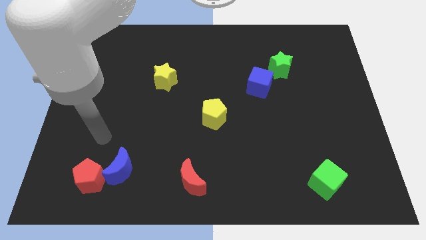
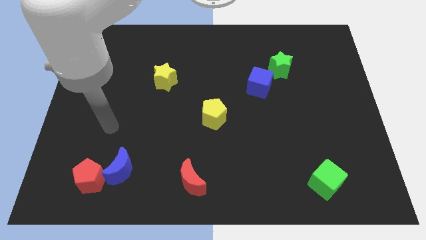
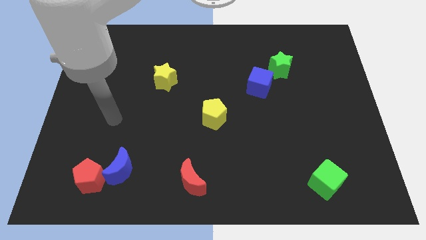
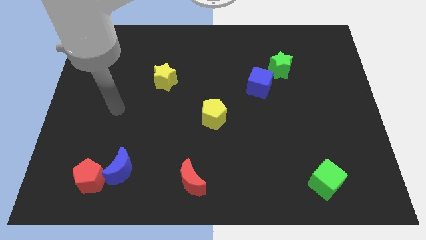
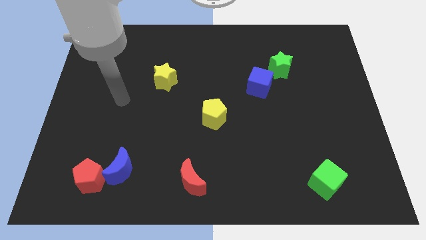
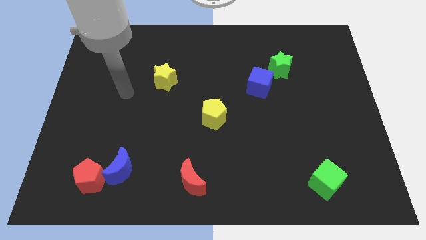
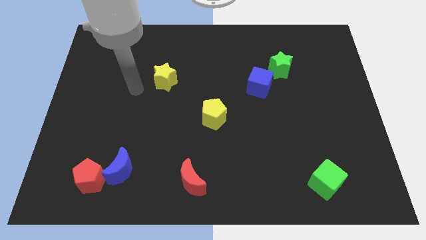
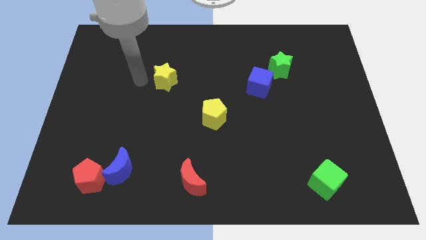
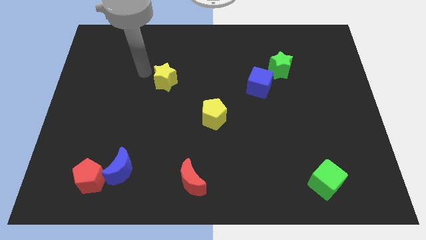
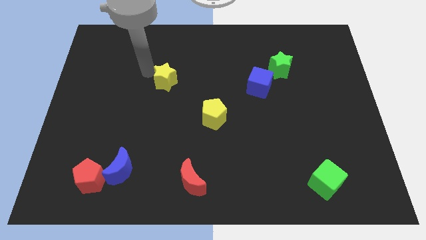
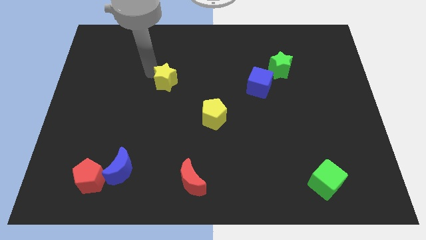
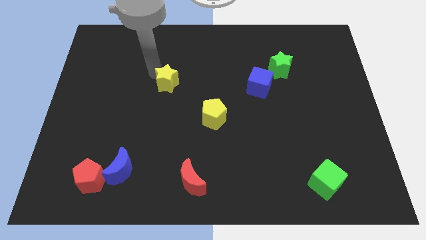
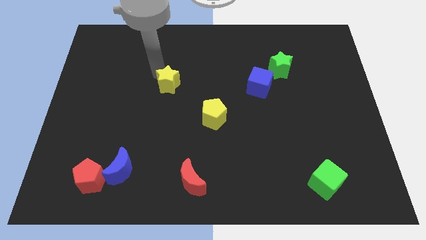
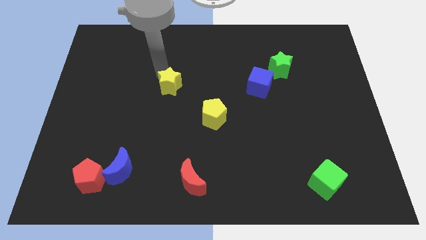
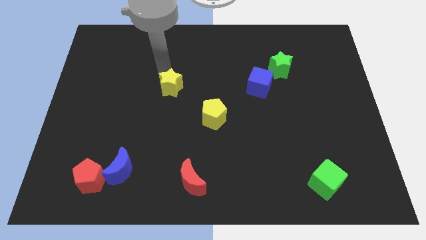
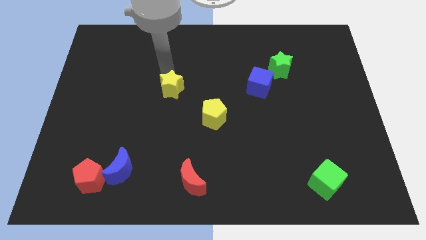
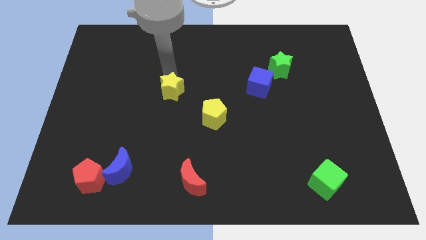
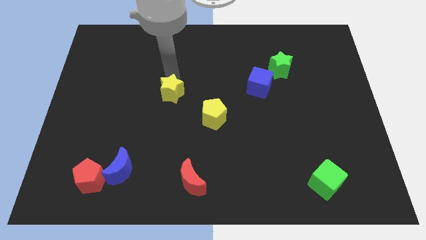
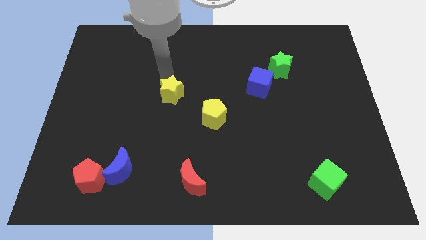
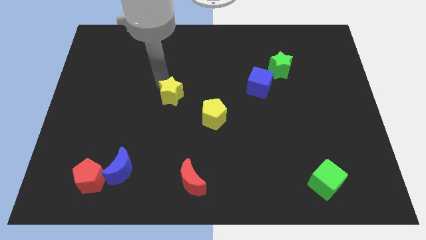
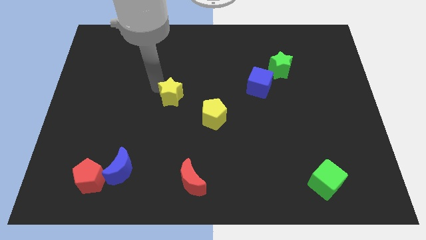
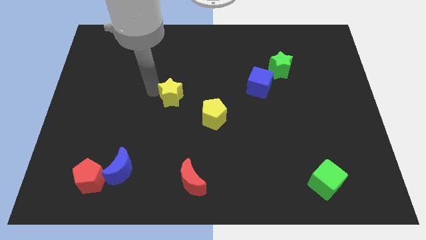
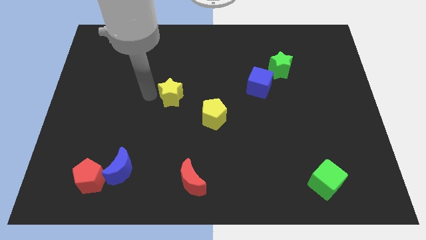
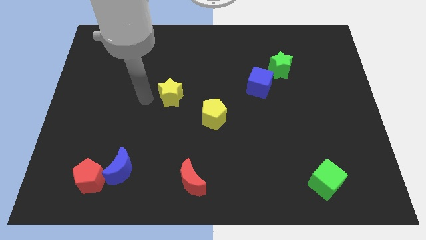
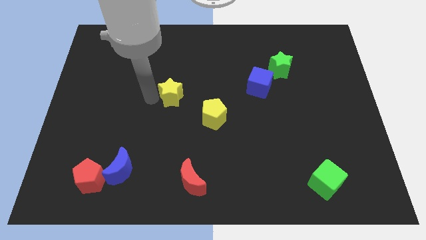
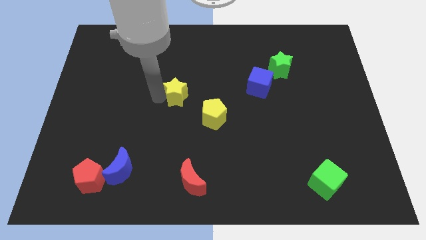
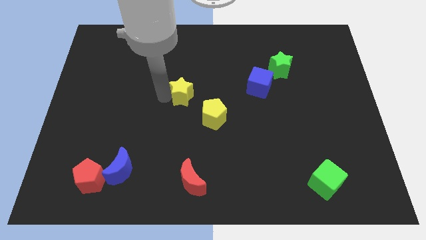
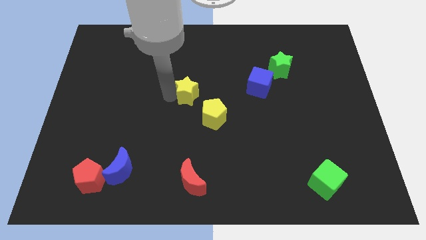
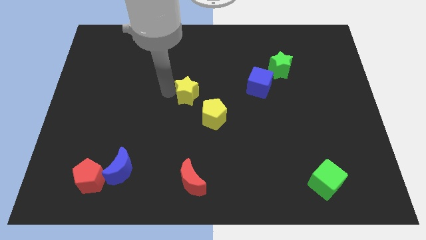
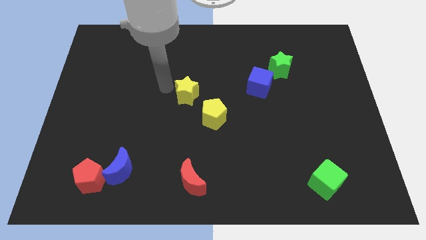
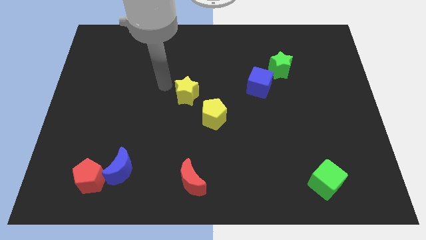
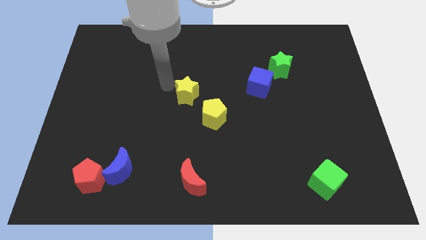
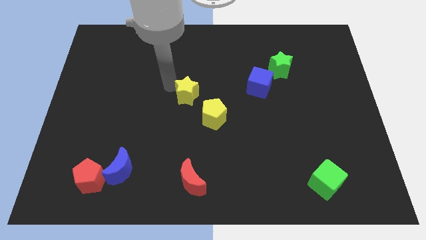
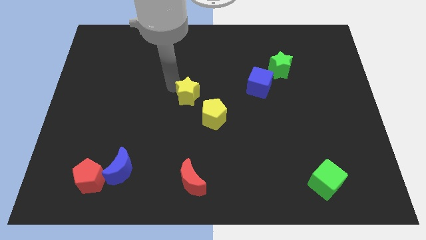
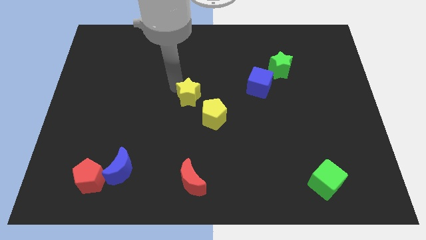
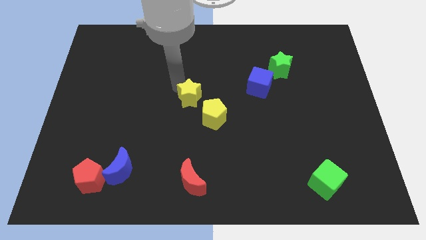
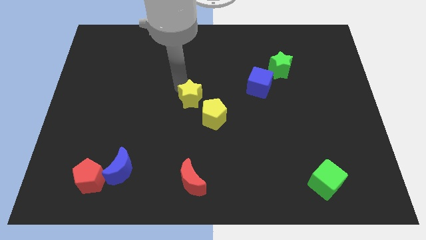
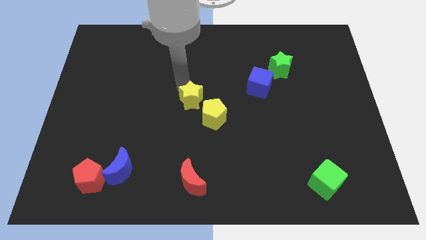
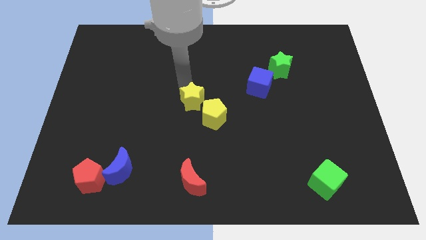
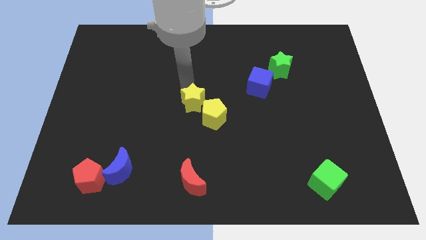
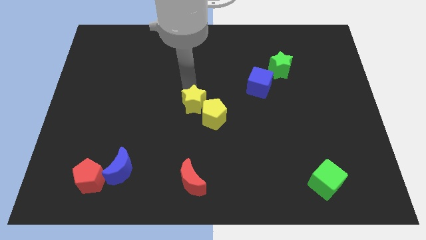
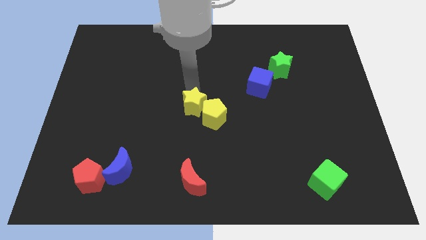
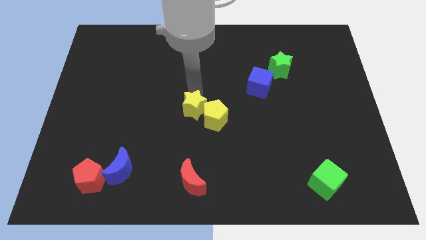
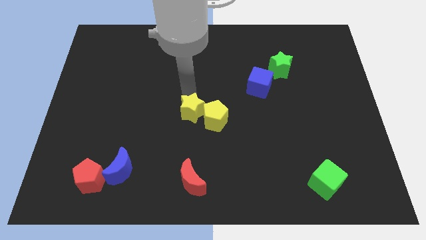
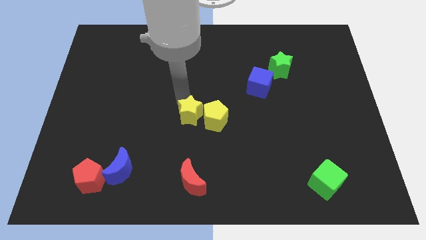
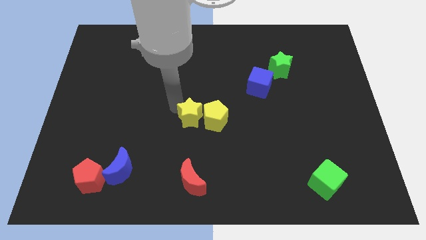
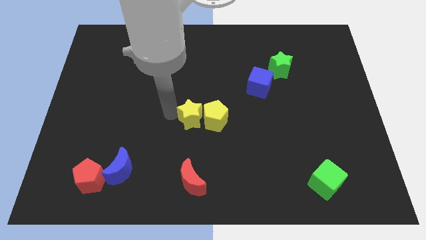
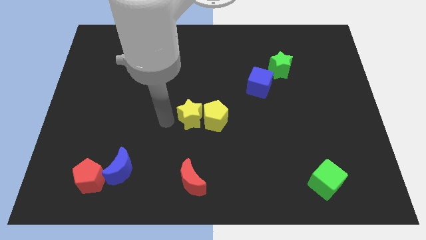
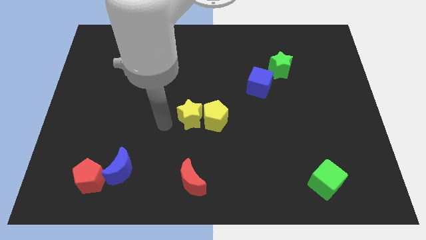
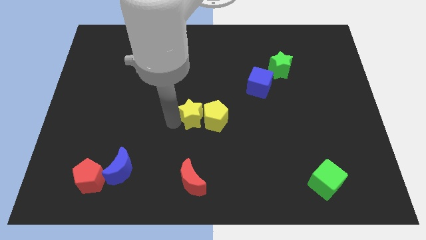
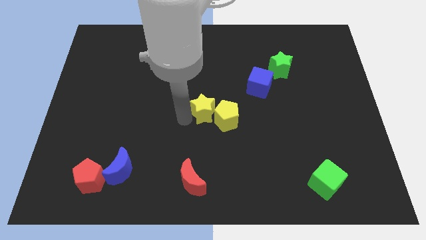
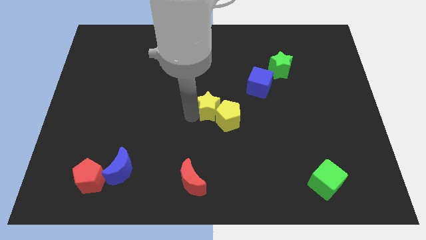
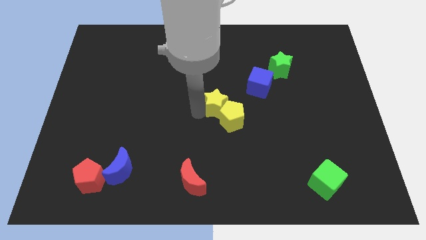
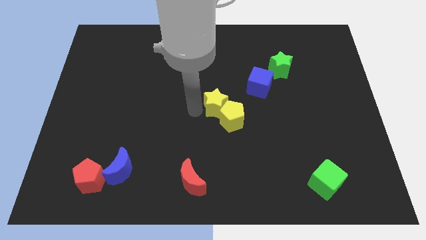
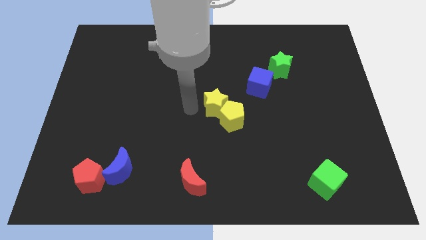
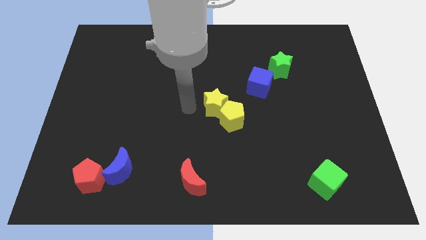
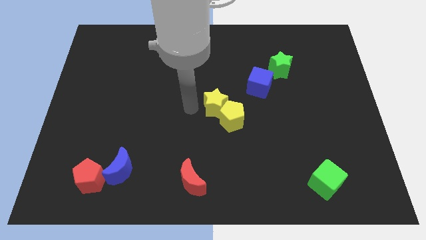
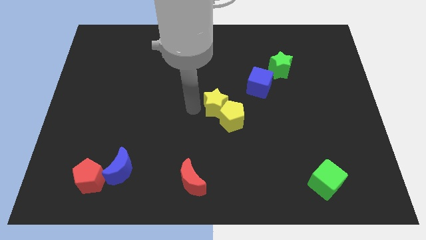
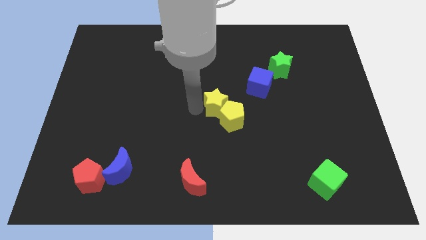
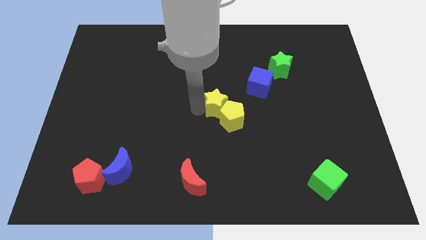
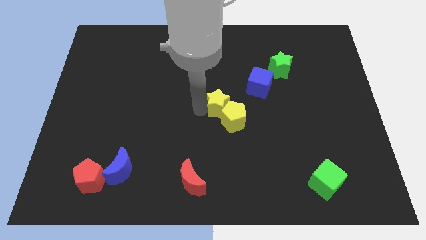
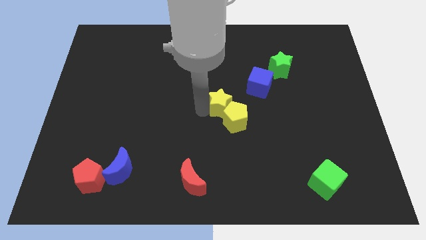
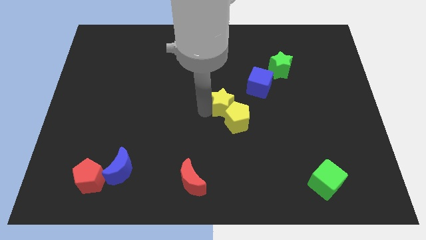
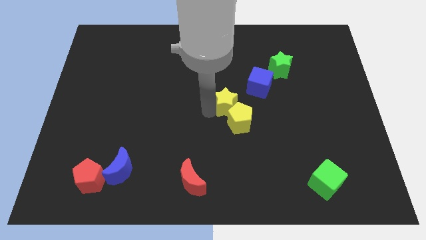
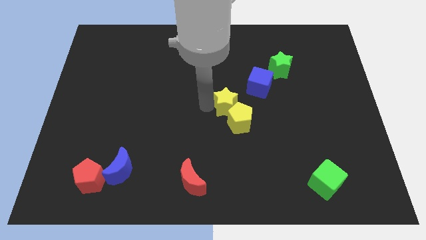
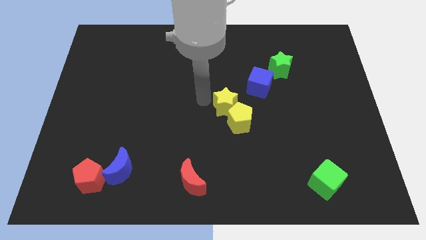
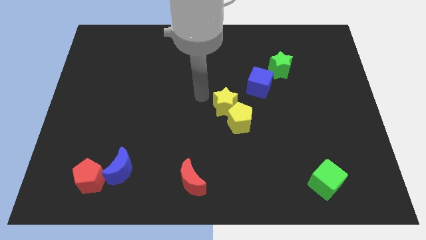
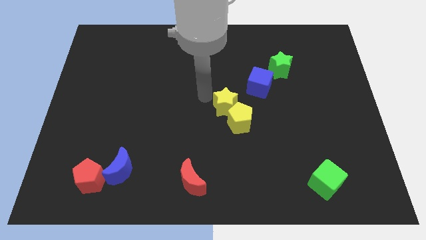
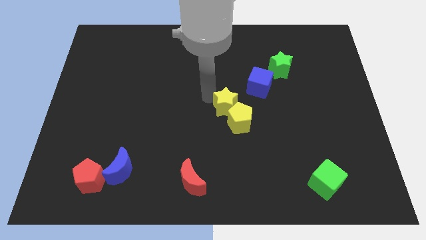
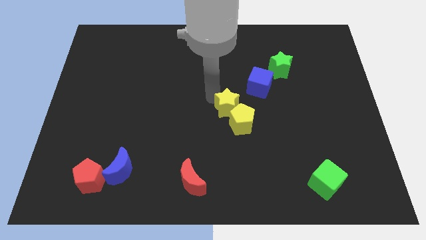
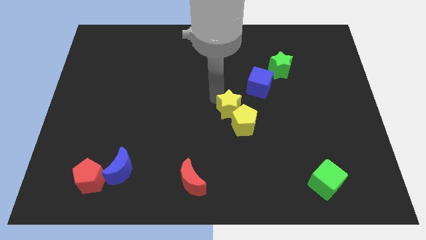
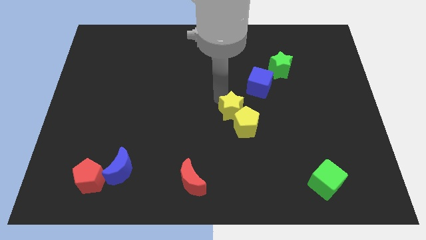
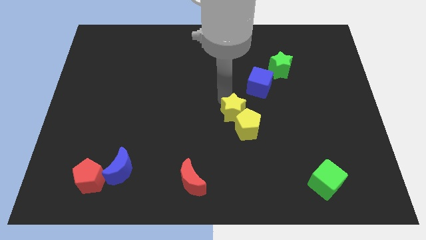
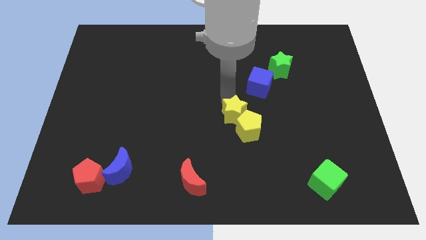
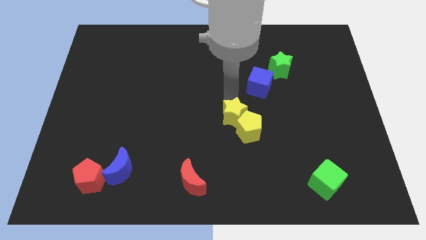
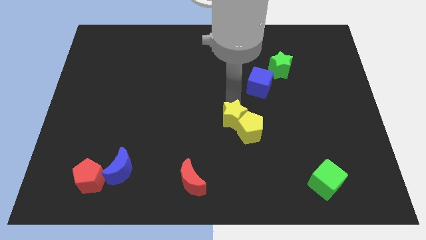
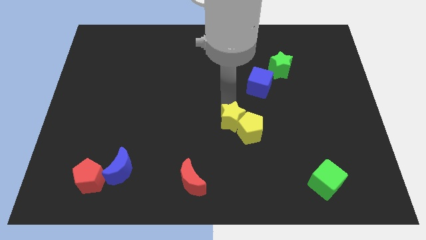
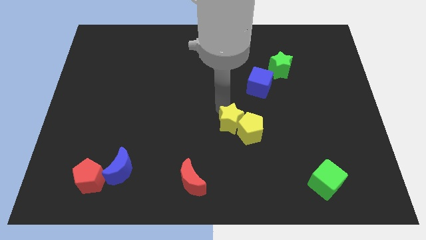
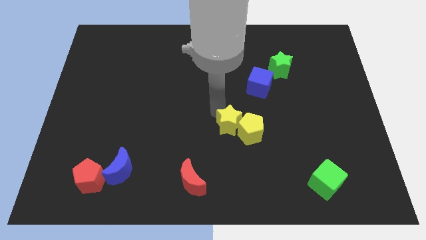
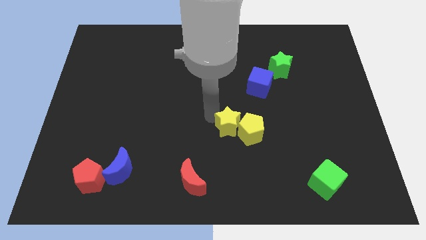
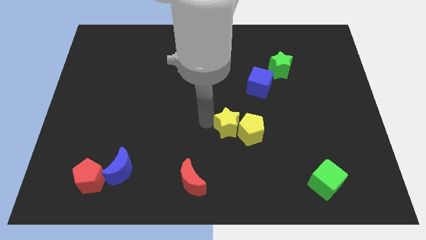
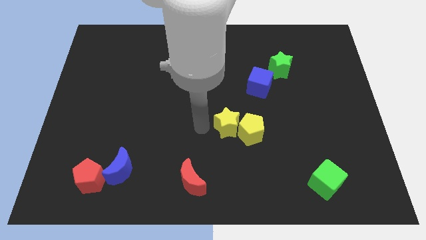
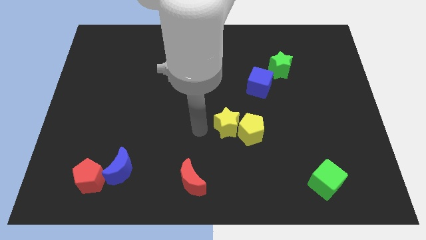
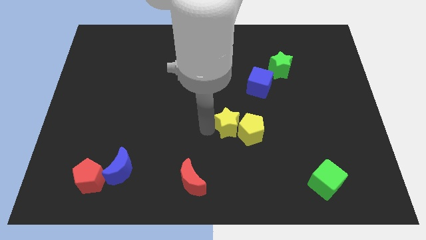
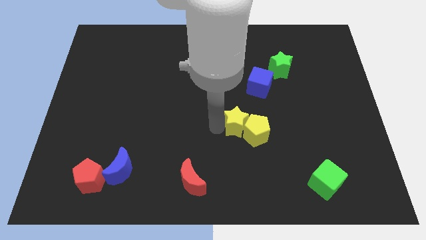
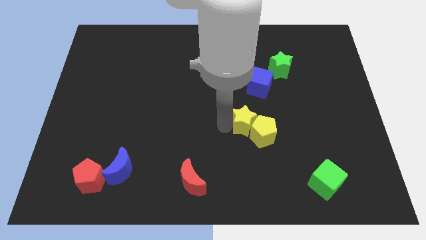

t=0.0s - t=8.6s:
push the yellow star to the bottom side of the blue cube
